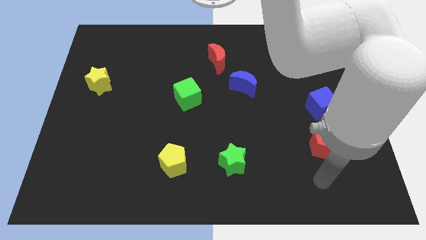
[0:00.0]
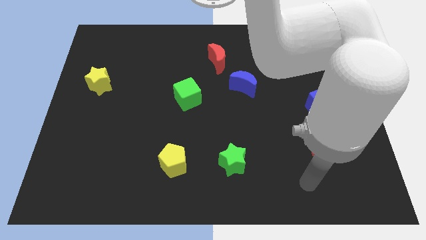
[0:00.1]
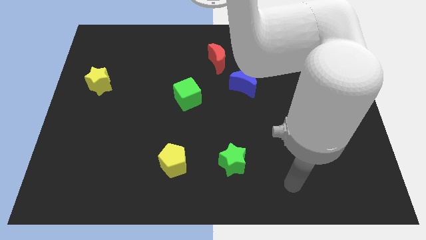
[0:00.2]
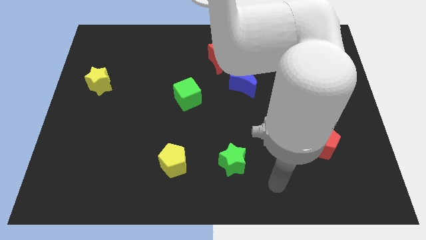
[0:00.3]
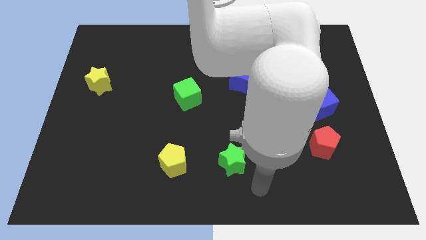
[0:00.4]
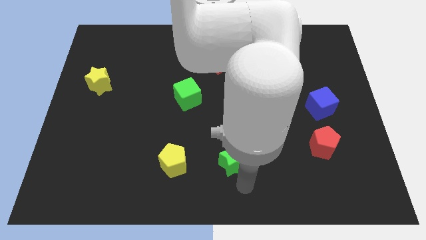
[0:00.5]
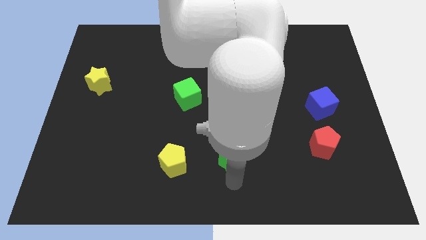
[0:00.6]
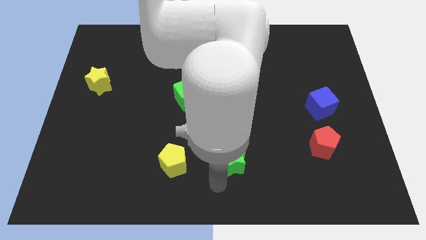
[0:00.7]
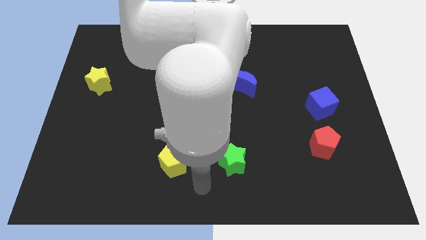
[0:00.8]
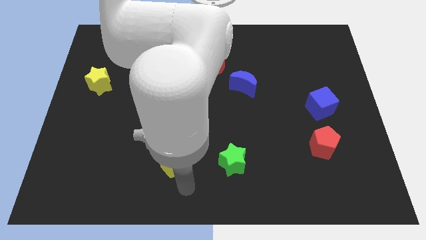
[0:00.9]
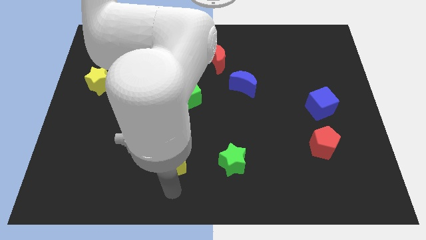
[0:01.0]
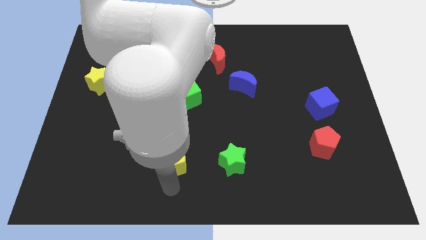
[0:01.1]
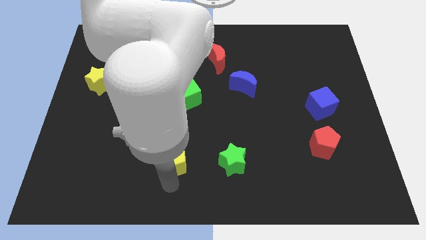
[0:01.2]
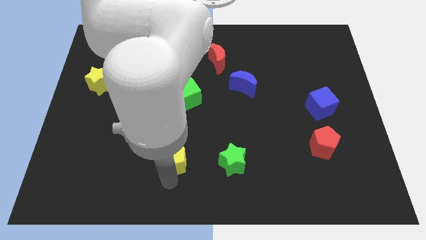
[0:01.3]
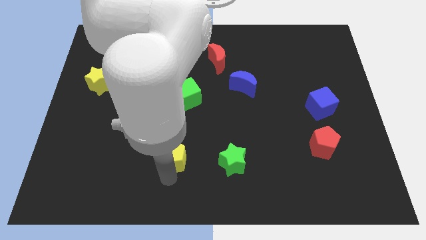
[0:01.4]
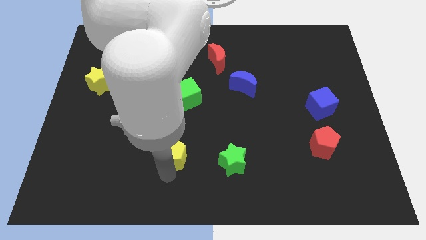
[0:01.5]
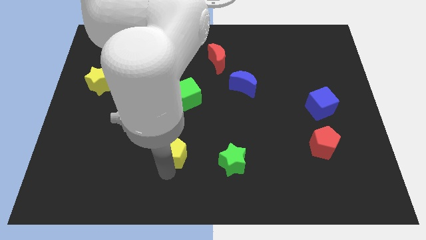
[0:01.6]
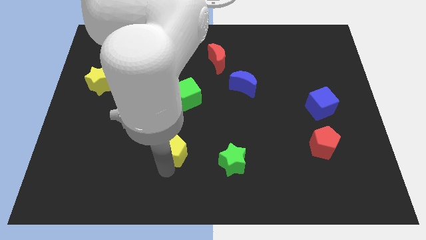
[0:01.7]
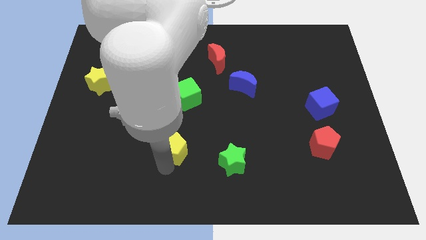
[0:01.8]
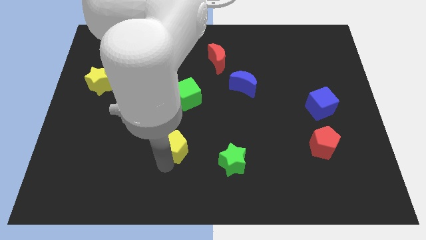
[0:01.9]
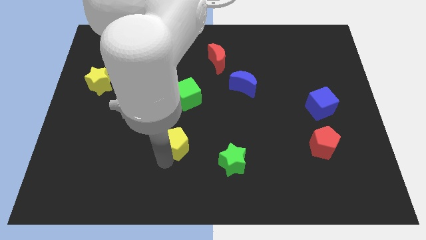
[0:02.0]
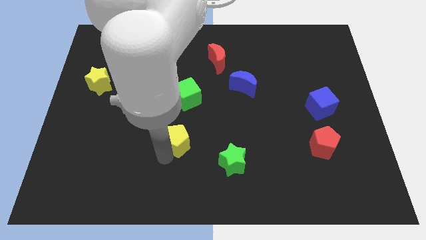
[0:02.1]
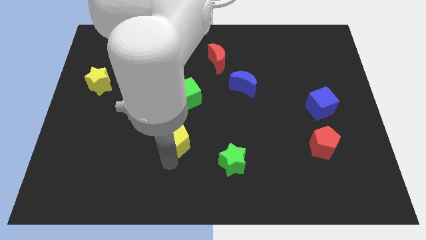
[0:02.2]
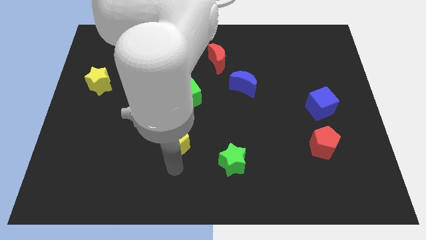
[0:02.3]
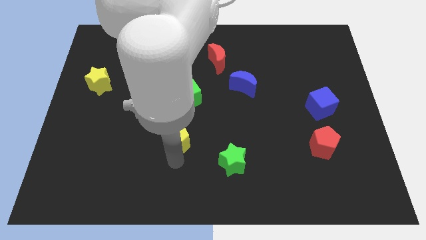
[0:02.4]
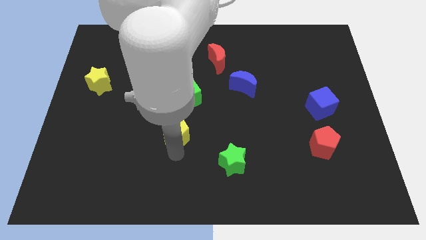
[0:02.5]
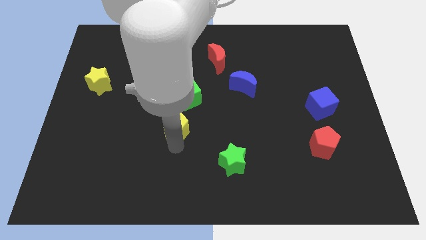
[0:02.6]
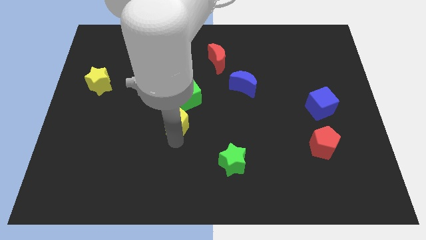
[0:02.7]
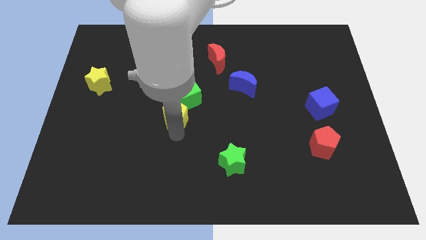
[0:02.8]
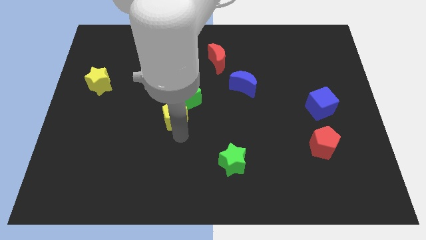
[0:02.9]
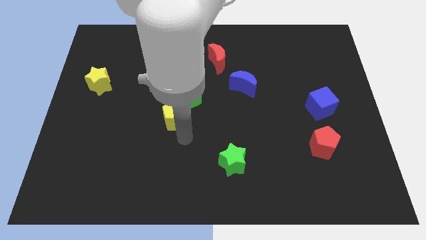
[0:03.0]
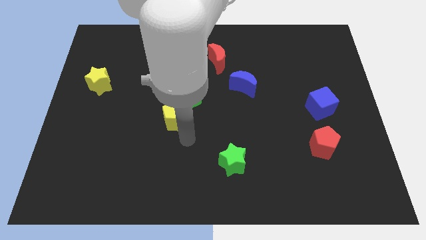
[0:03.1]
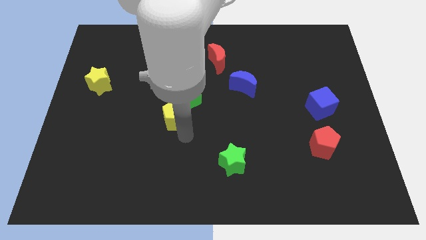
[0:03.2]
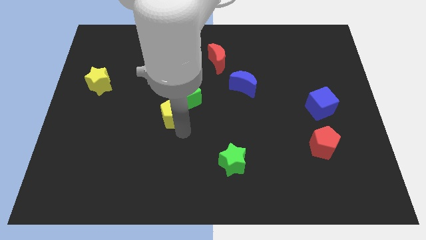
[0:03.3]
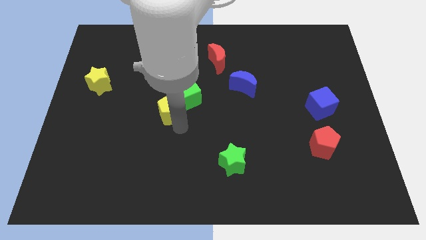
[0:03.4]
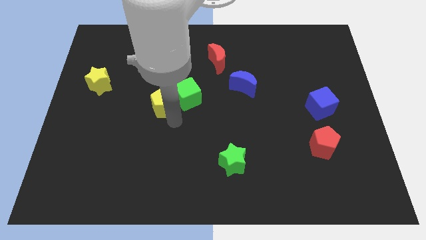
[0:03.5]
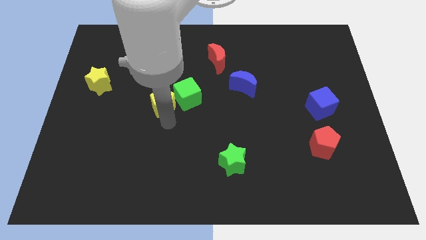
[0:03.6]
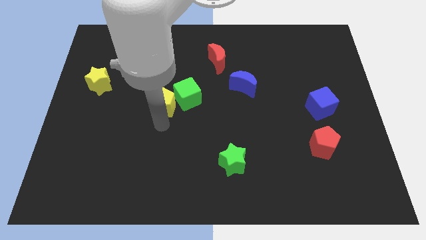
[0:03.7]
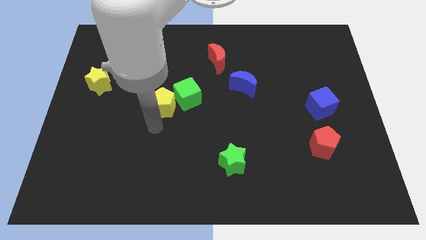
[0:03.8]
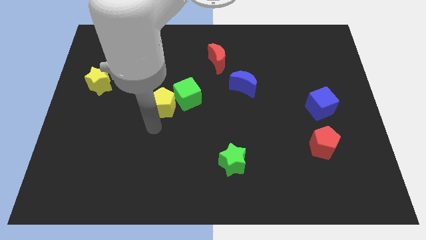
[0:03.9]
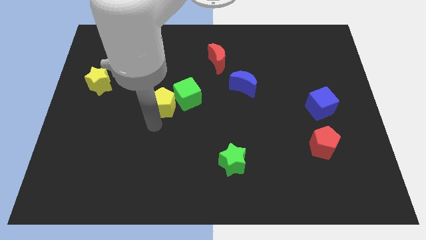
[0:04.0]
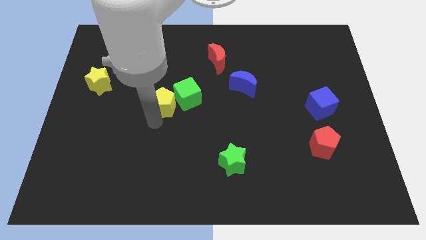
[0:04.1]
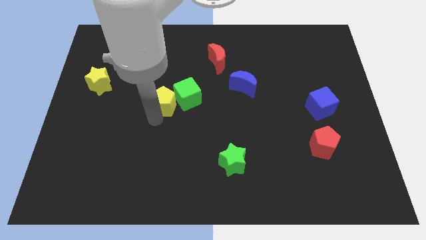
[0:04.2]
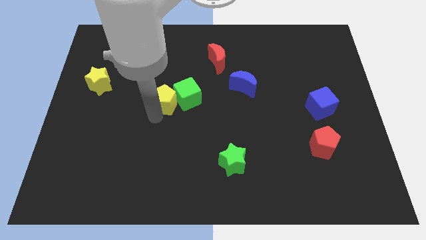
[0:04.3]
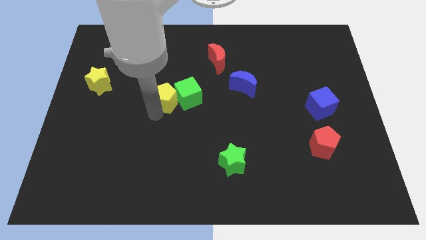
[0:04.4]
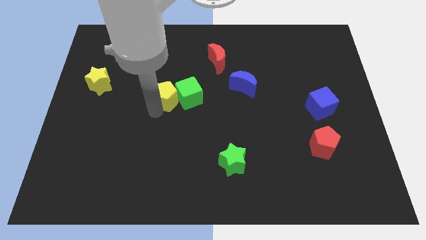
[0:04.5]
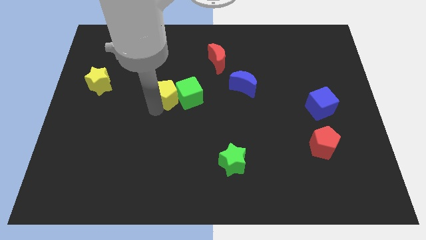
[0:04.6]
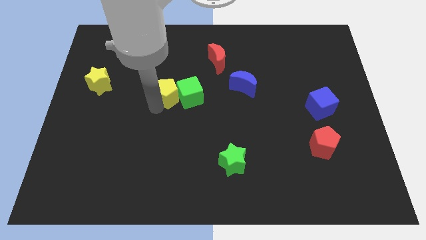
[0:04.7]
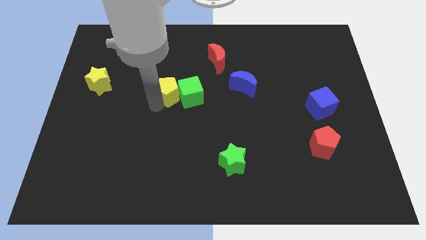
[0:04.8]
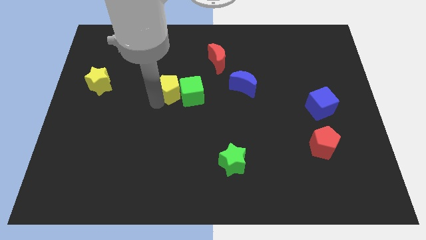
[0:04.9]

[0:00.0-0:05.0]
move the yellow pentagon upwards

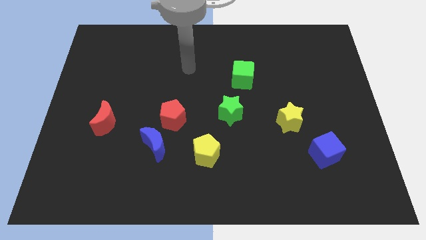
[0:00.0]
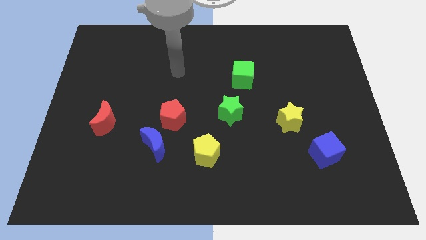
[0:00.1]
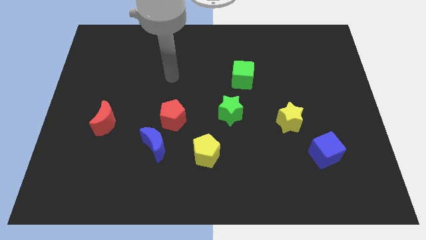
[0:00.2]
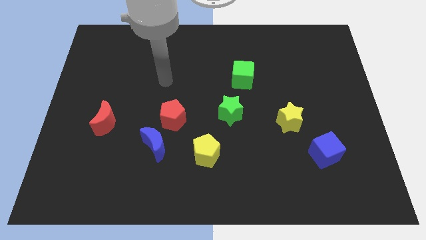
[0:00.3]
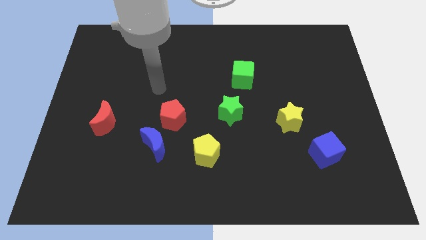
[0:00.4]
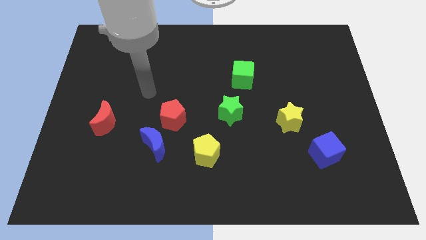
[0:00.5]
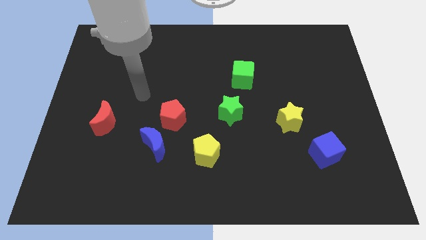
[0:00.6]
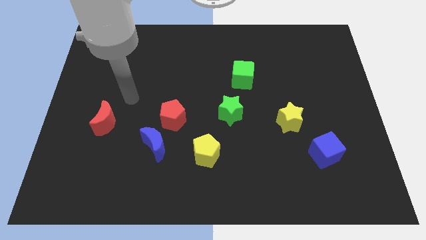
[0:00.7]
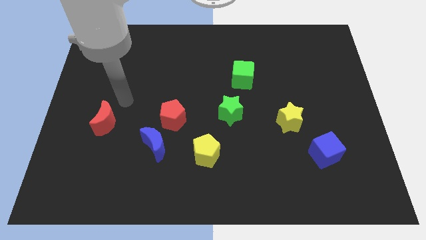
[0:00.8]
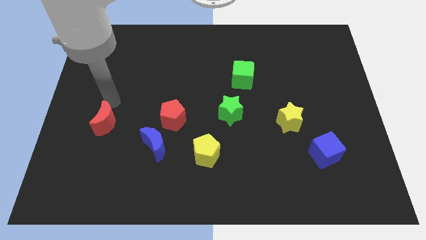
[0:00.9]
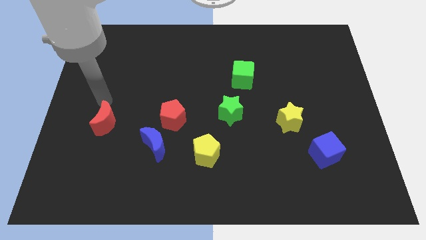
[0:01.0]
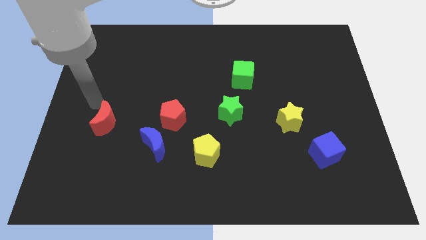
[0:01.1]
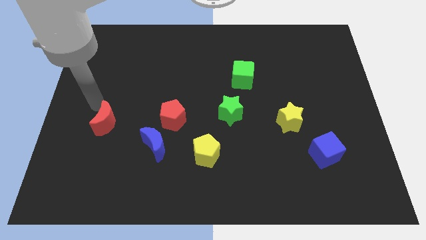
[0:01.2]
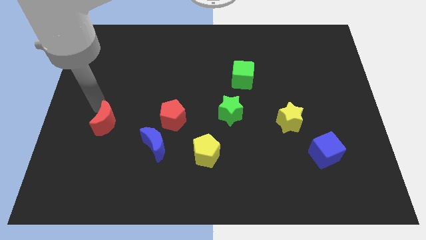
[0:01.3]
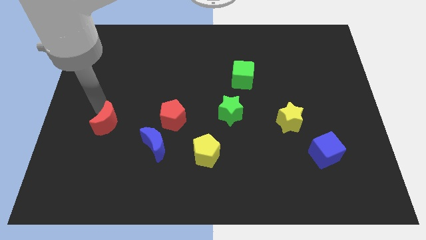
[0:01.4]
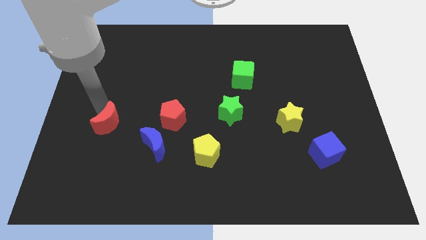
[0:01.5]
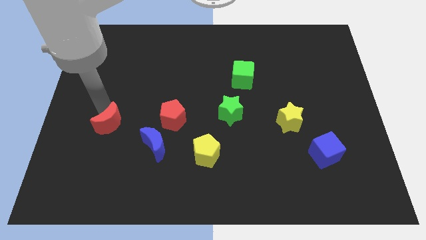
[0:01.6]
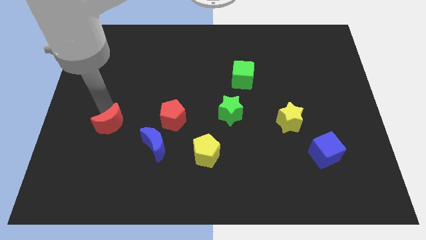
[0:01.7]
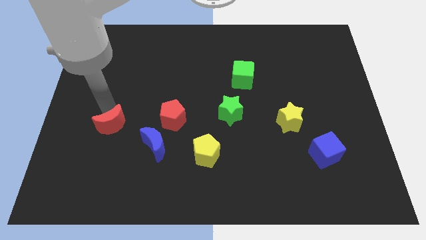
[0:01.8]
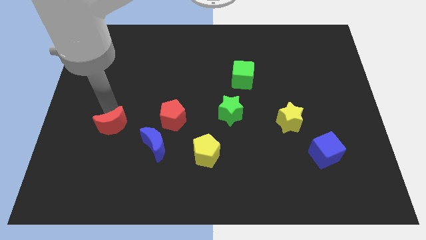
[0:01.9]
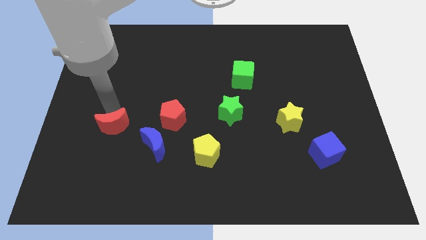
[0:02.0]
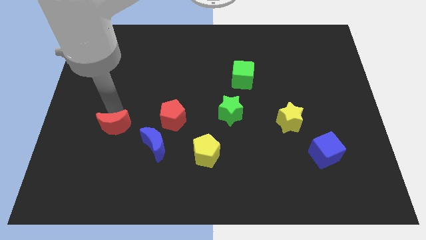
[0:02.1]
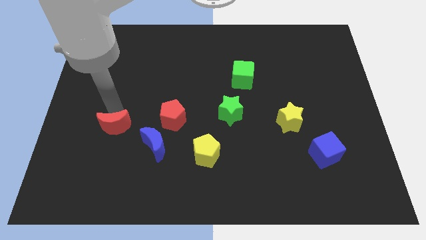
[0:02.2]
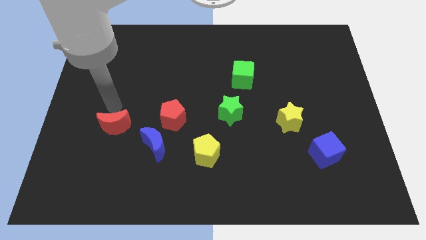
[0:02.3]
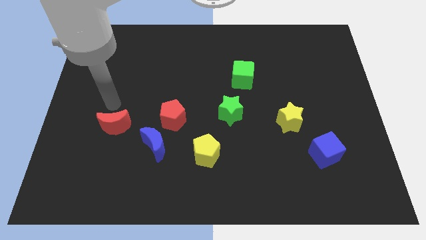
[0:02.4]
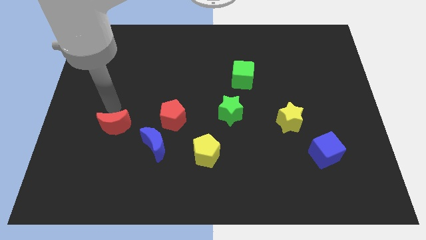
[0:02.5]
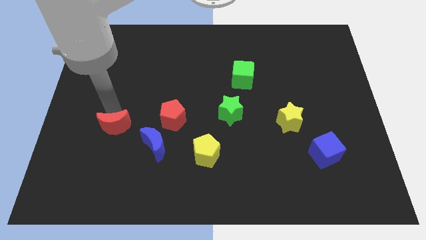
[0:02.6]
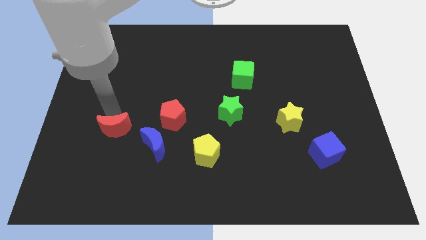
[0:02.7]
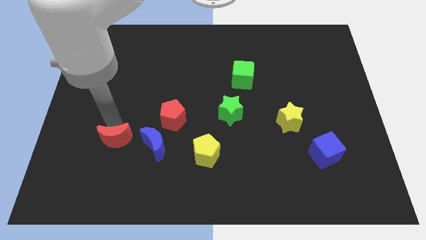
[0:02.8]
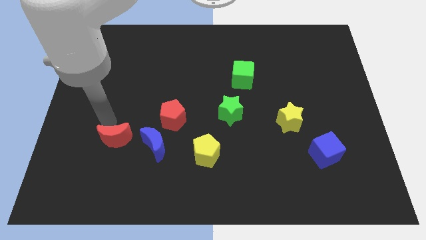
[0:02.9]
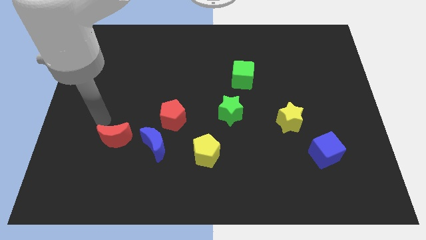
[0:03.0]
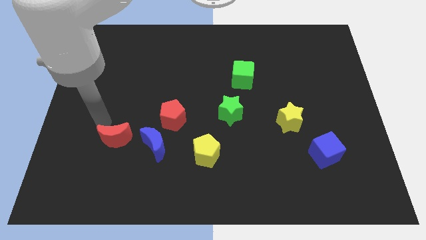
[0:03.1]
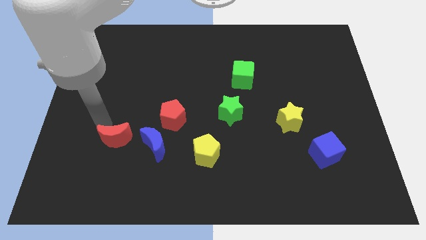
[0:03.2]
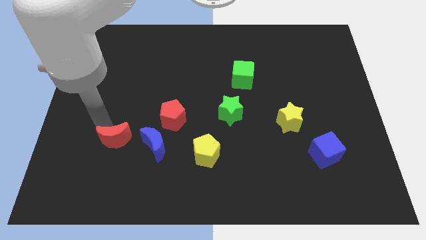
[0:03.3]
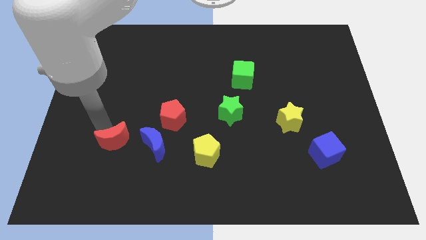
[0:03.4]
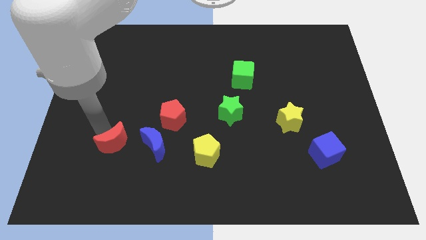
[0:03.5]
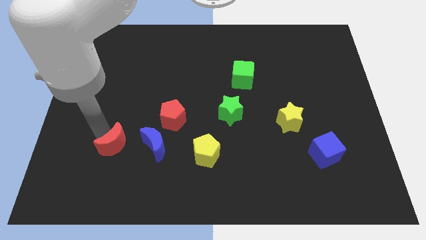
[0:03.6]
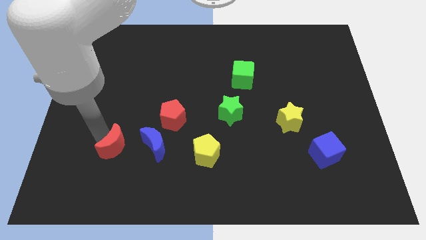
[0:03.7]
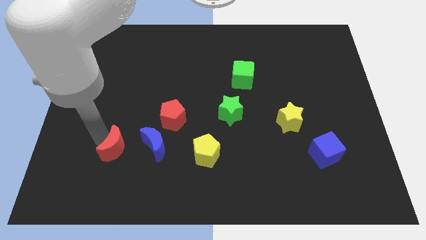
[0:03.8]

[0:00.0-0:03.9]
push the red moon a bit downwards and right
